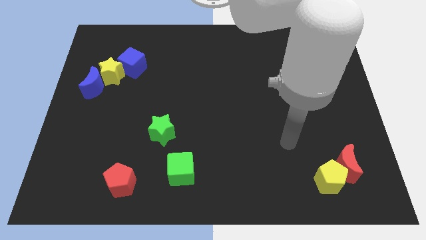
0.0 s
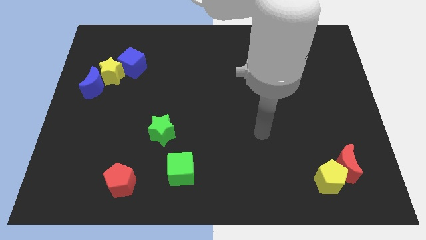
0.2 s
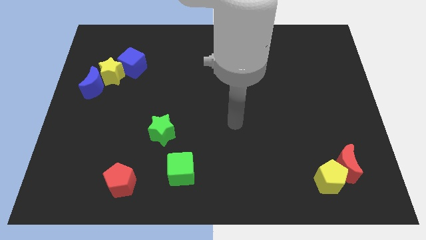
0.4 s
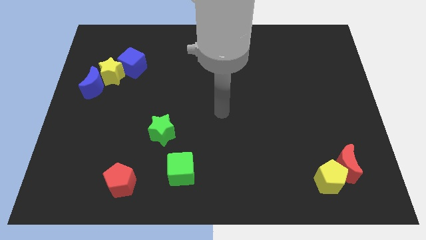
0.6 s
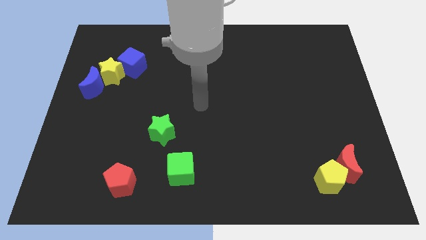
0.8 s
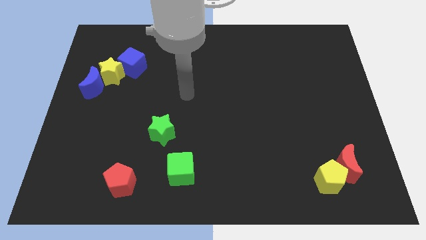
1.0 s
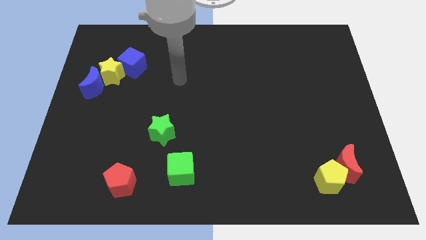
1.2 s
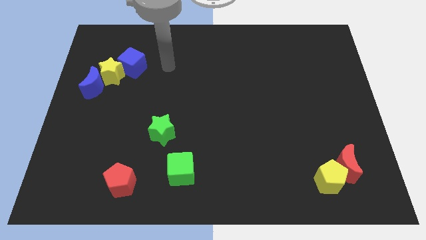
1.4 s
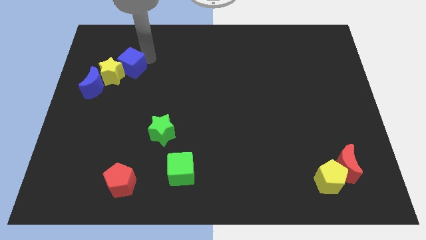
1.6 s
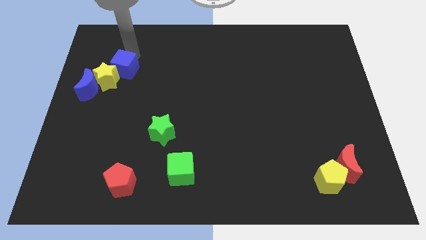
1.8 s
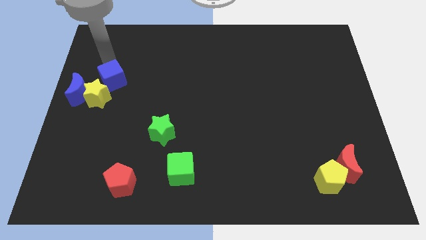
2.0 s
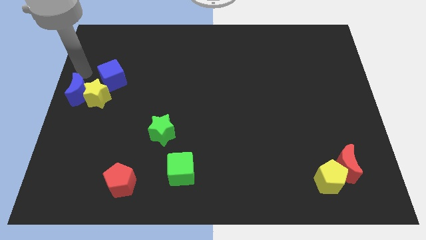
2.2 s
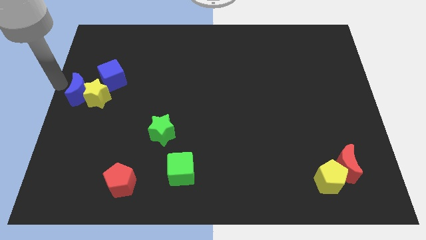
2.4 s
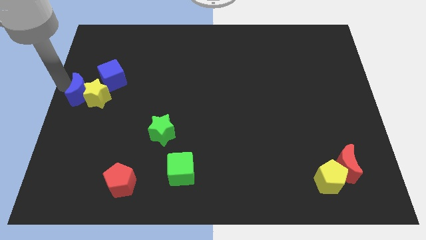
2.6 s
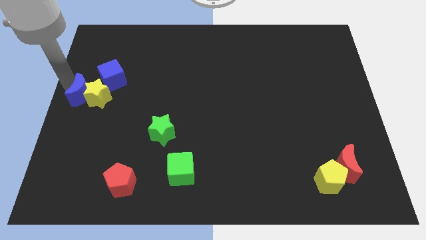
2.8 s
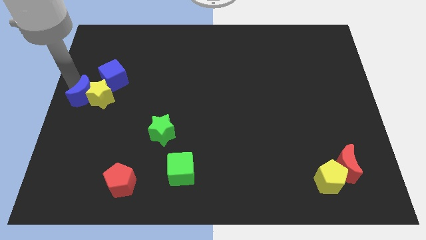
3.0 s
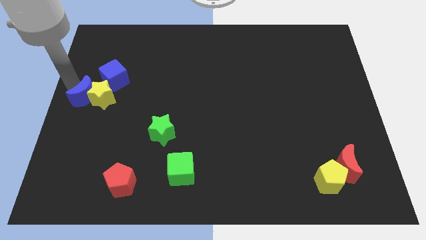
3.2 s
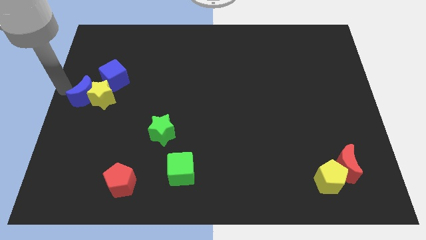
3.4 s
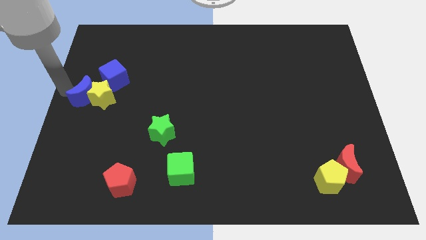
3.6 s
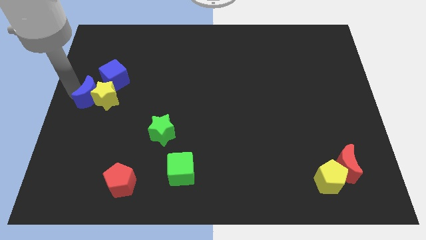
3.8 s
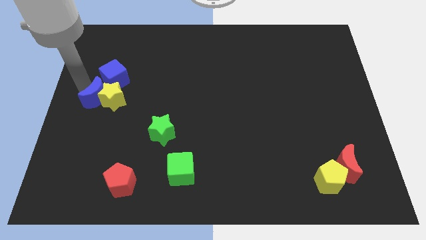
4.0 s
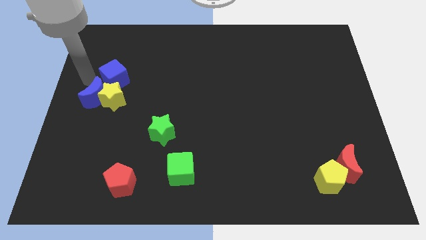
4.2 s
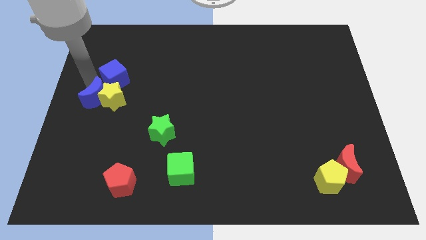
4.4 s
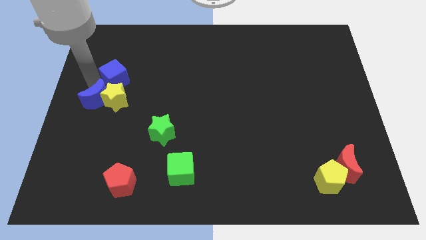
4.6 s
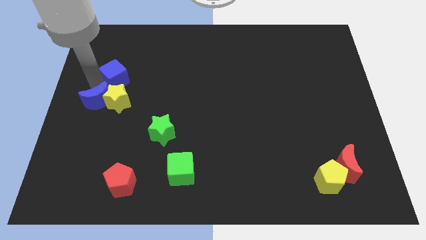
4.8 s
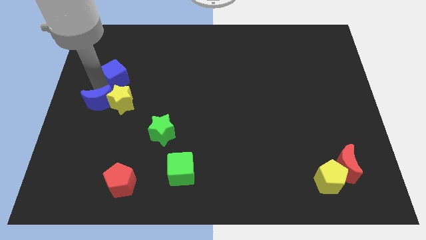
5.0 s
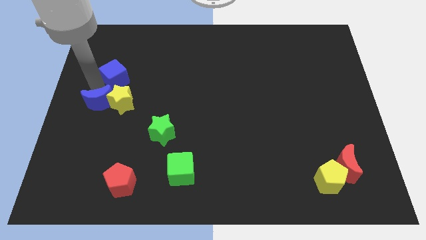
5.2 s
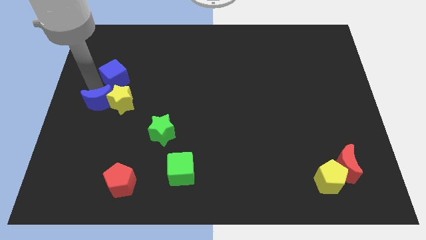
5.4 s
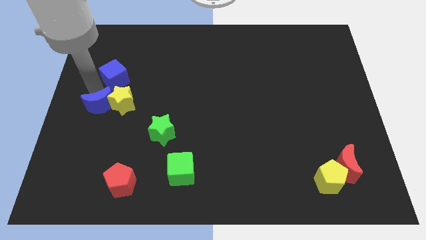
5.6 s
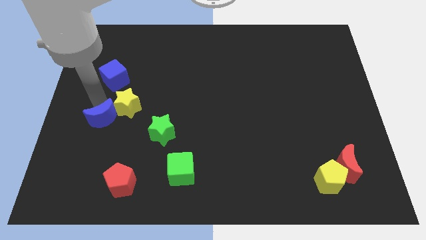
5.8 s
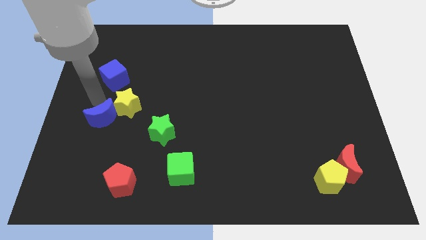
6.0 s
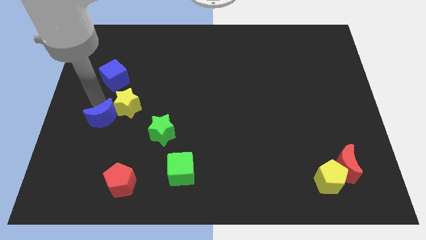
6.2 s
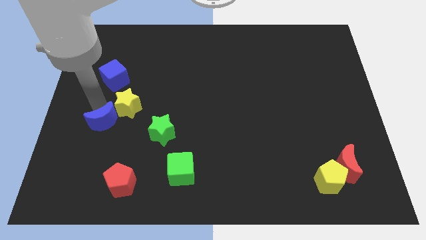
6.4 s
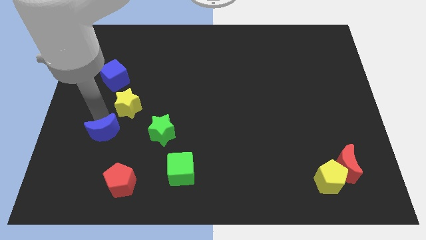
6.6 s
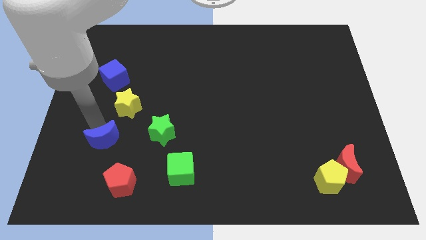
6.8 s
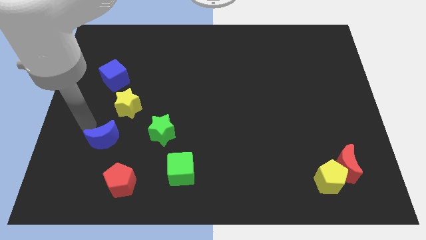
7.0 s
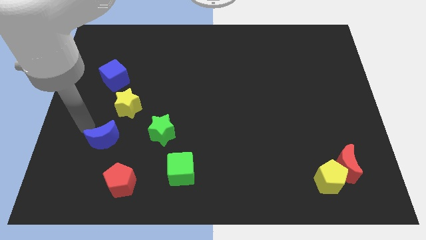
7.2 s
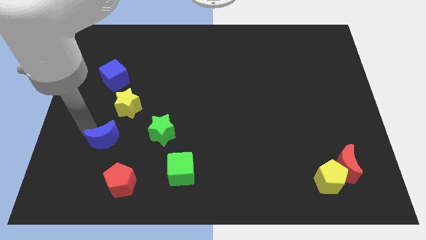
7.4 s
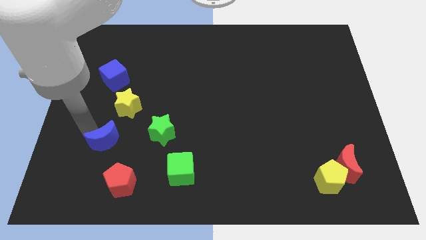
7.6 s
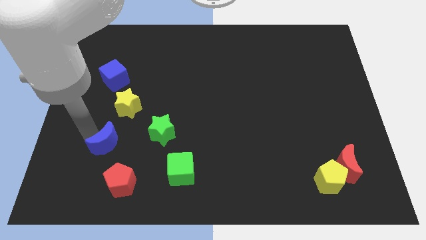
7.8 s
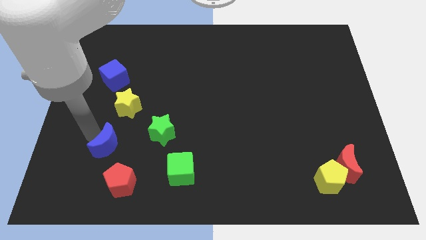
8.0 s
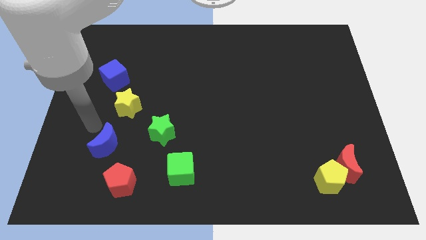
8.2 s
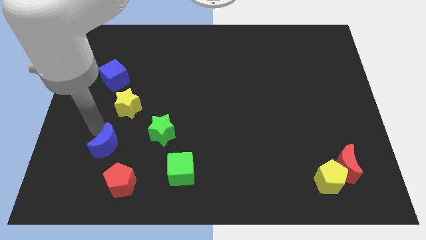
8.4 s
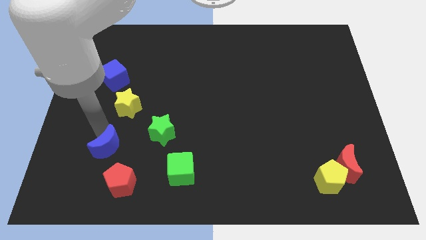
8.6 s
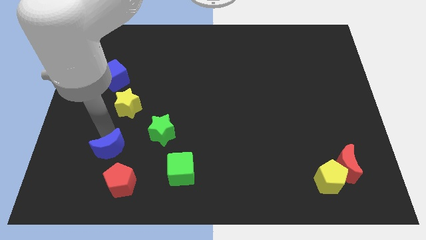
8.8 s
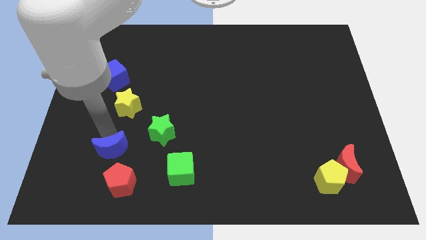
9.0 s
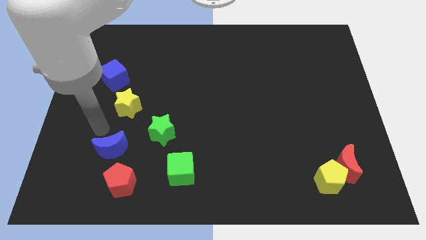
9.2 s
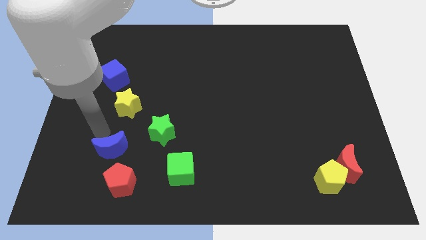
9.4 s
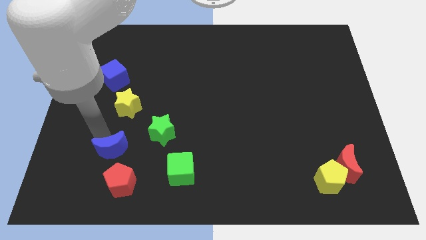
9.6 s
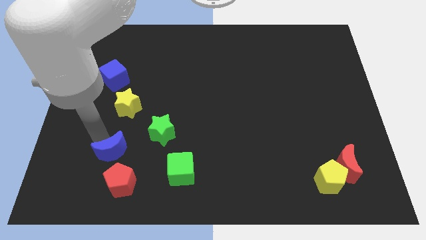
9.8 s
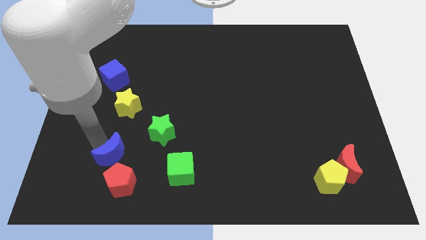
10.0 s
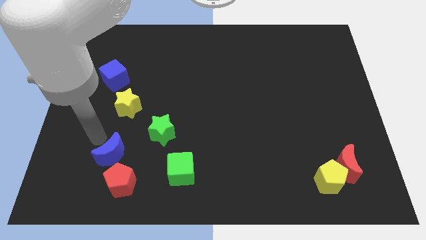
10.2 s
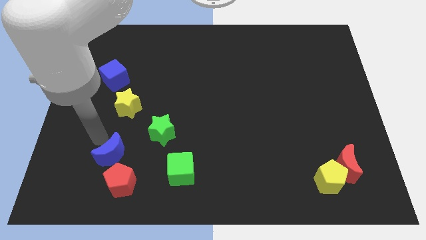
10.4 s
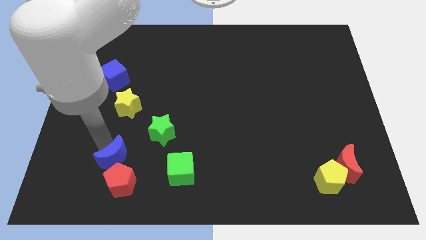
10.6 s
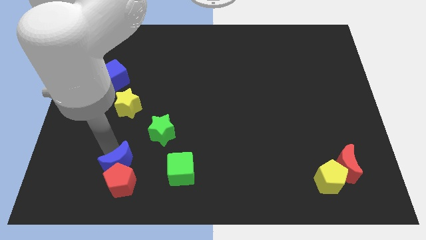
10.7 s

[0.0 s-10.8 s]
put the blue moon towards the red pentagon

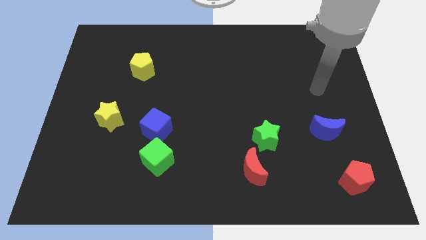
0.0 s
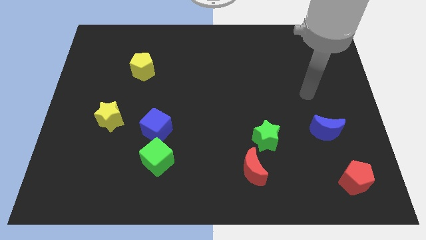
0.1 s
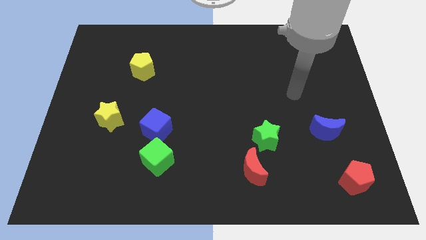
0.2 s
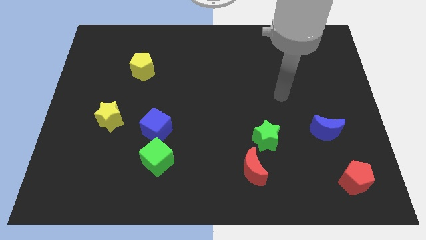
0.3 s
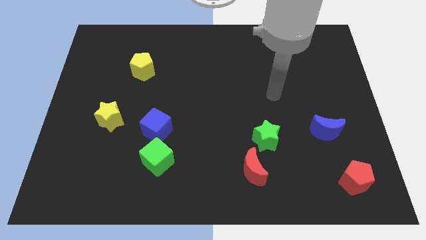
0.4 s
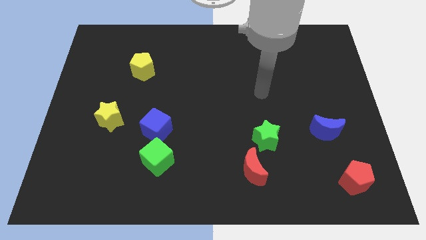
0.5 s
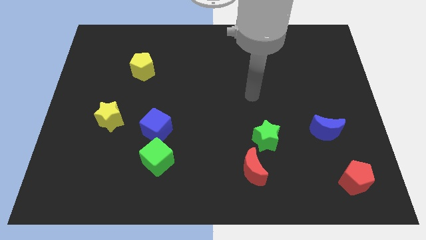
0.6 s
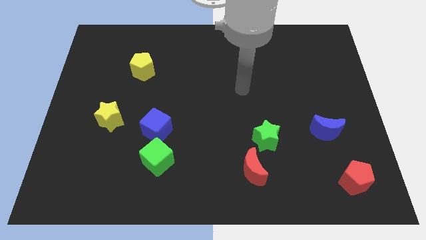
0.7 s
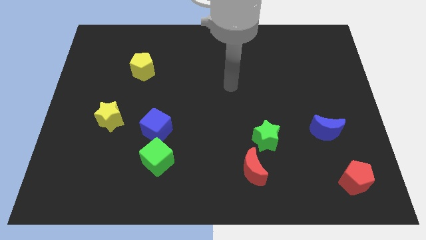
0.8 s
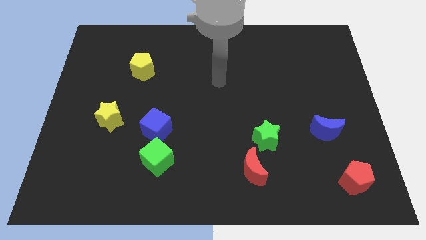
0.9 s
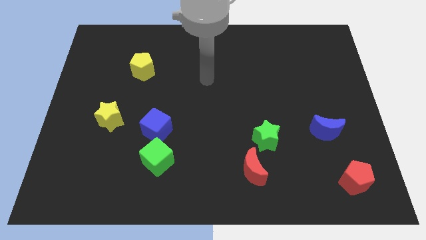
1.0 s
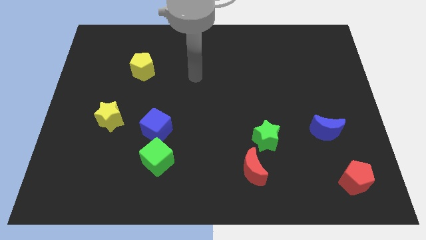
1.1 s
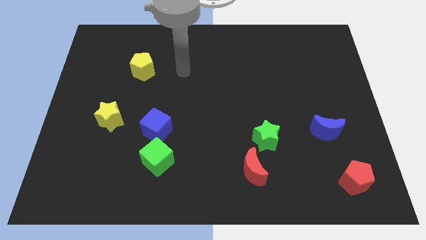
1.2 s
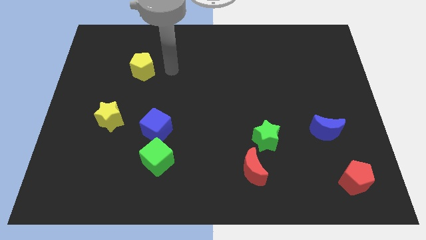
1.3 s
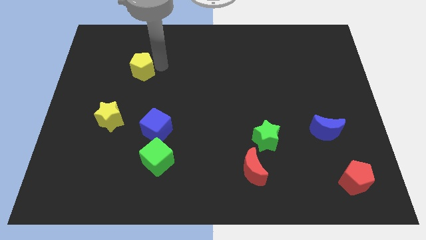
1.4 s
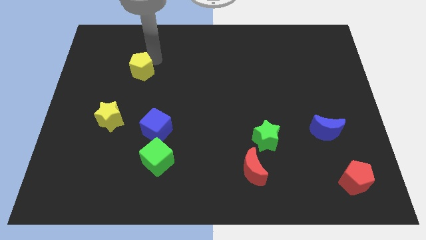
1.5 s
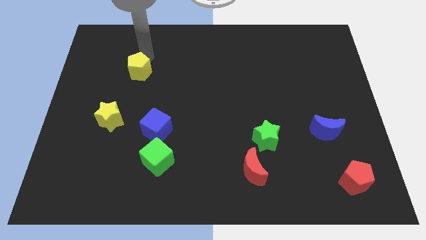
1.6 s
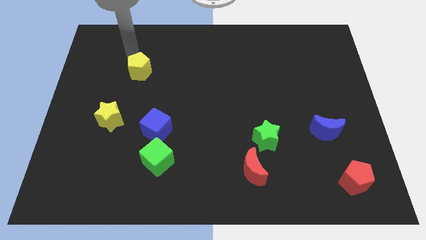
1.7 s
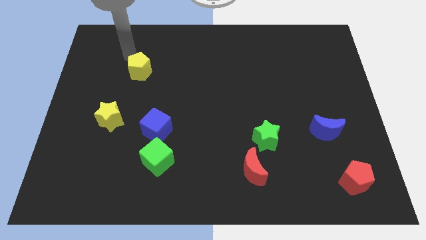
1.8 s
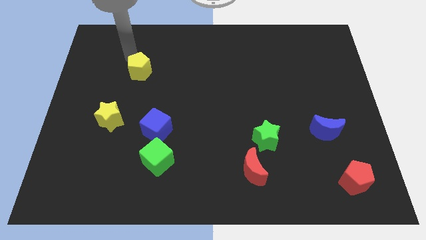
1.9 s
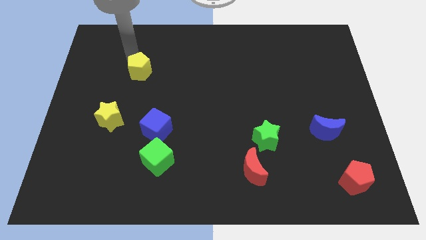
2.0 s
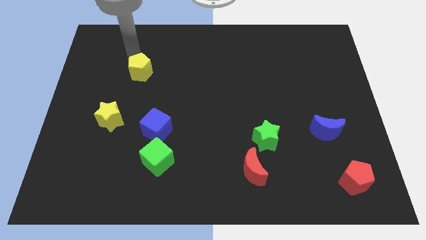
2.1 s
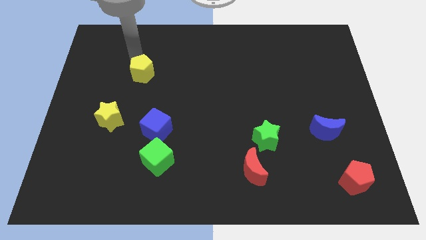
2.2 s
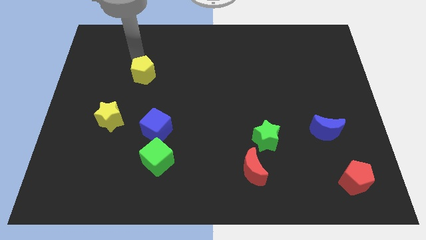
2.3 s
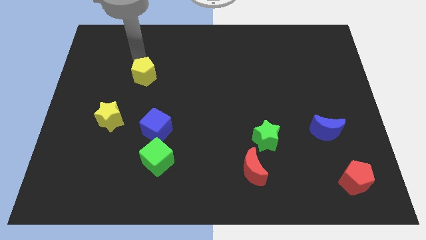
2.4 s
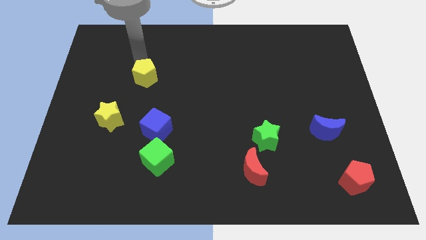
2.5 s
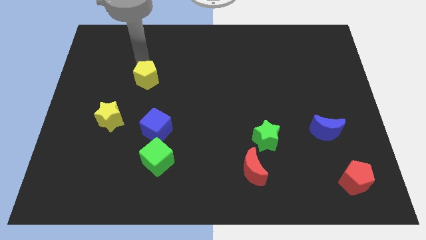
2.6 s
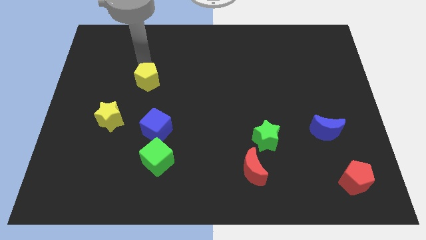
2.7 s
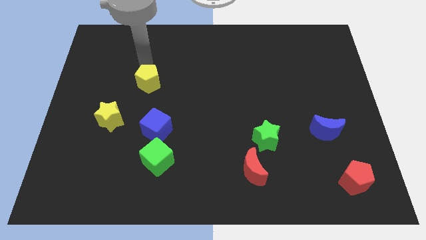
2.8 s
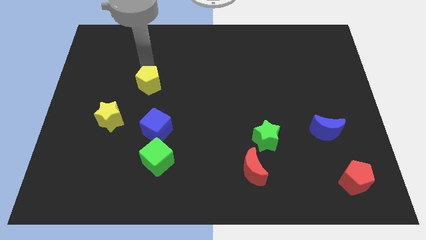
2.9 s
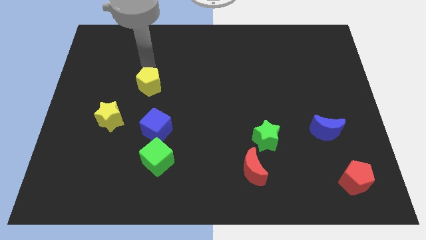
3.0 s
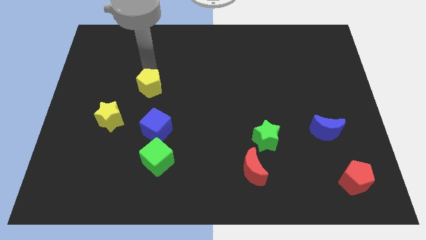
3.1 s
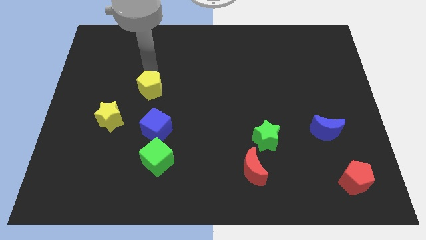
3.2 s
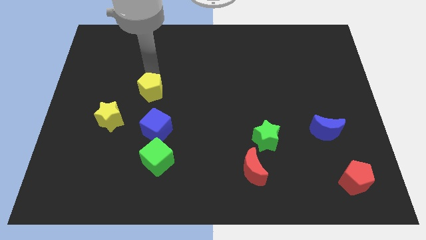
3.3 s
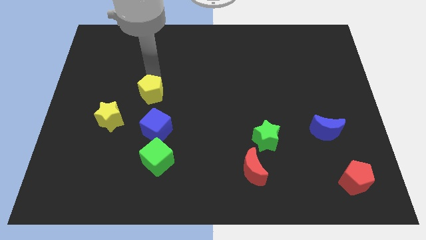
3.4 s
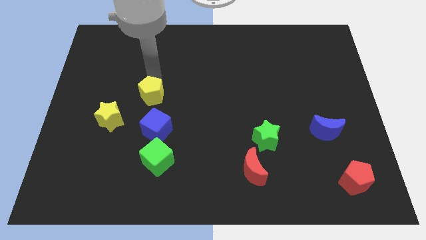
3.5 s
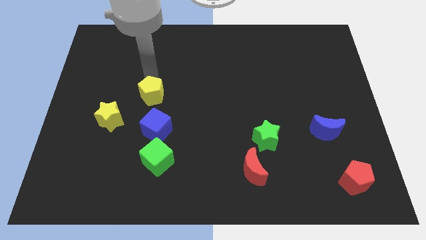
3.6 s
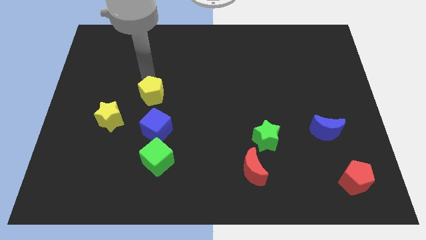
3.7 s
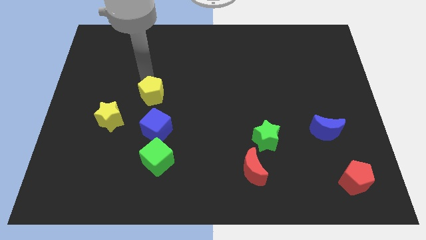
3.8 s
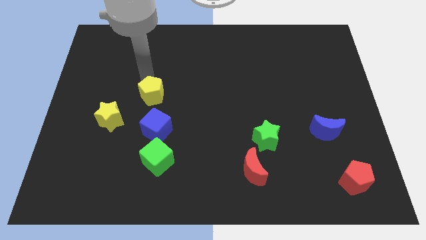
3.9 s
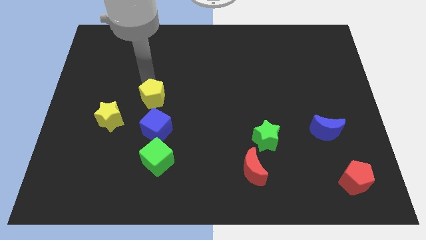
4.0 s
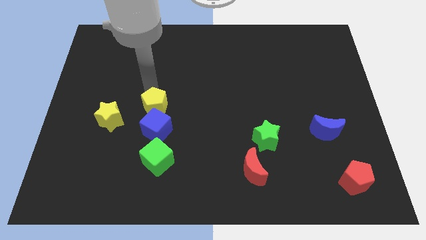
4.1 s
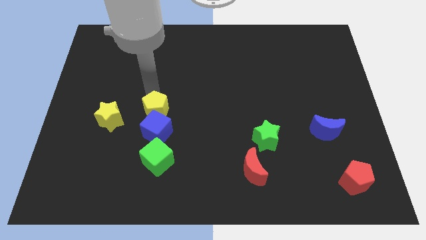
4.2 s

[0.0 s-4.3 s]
slide the yellow pentagon next to the blue cube
